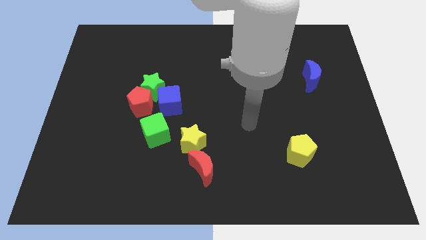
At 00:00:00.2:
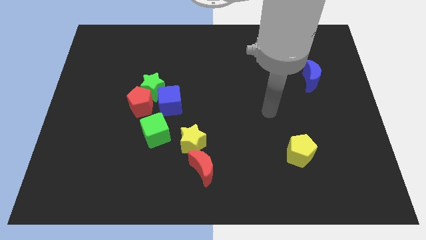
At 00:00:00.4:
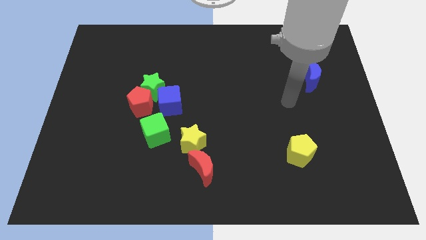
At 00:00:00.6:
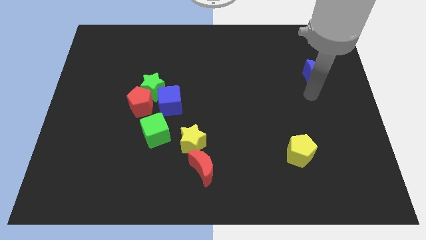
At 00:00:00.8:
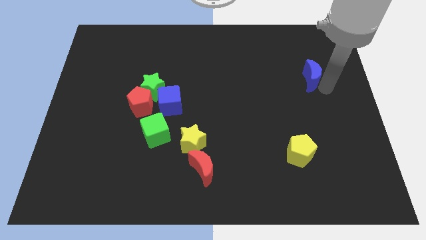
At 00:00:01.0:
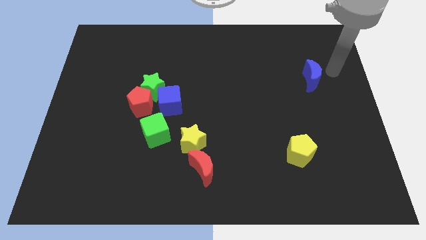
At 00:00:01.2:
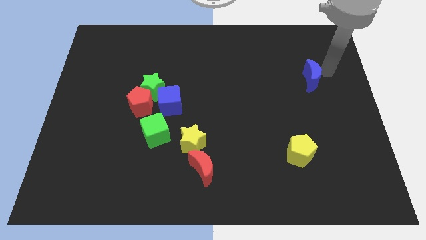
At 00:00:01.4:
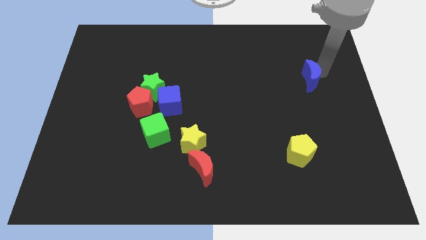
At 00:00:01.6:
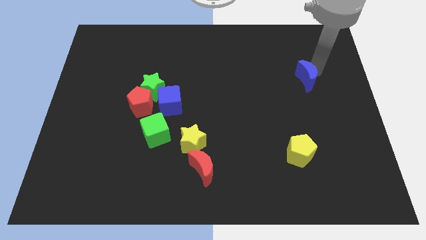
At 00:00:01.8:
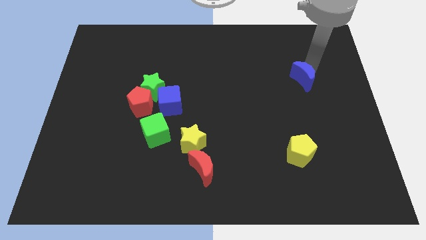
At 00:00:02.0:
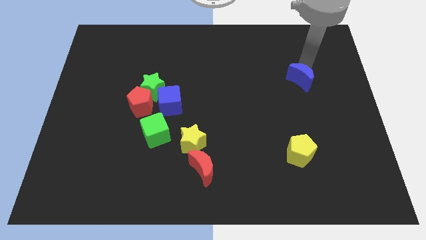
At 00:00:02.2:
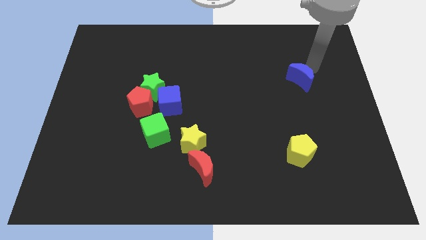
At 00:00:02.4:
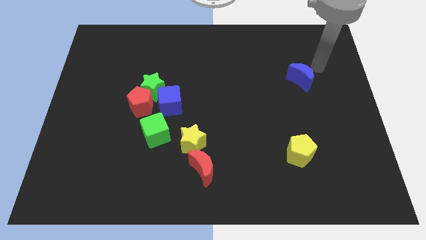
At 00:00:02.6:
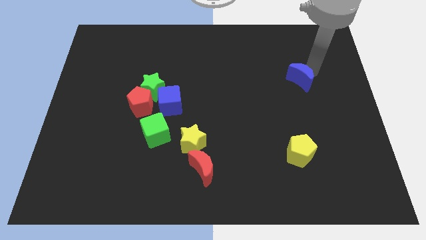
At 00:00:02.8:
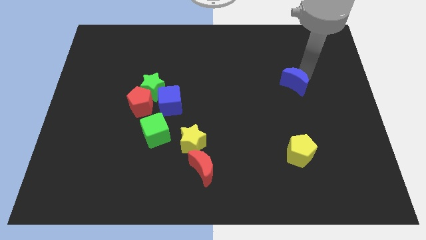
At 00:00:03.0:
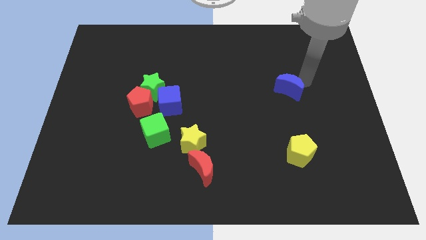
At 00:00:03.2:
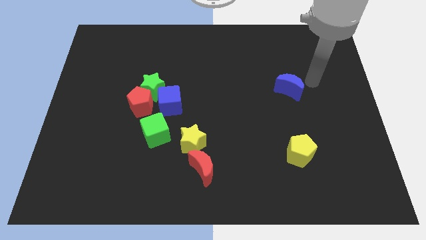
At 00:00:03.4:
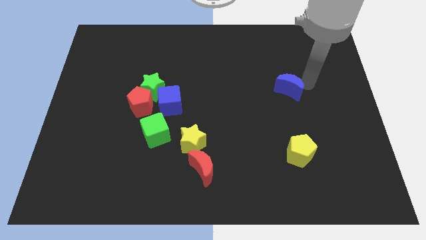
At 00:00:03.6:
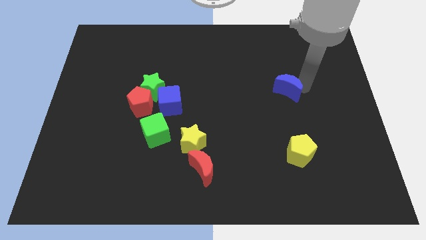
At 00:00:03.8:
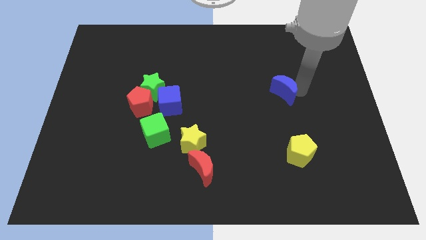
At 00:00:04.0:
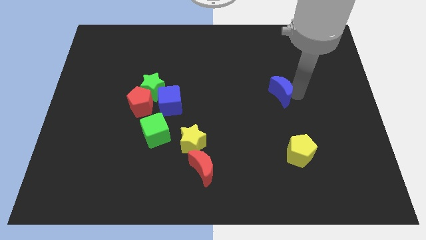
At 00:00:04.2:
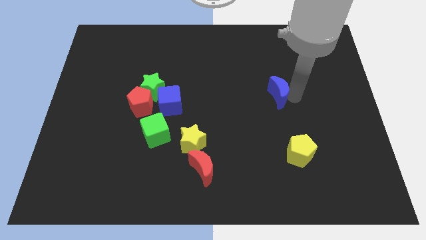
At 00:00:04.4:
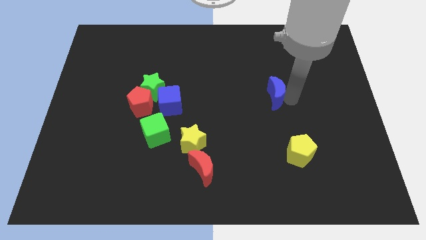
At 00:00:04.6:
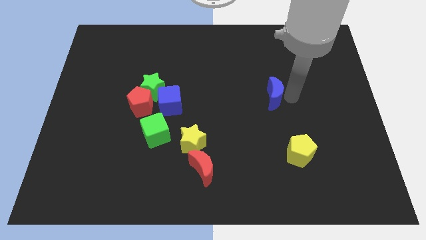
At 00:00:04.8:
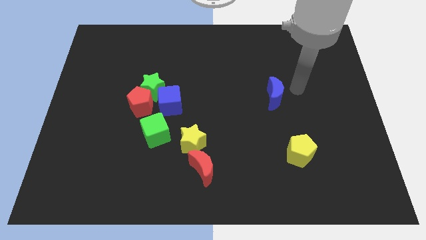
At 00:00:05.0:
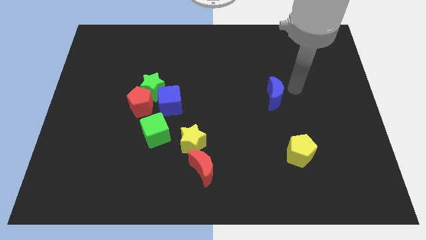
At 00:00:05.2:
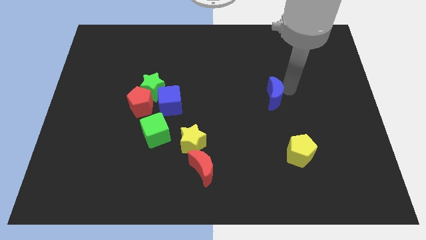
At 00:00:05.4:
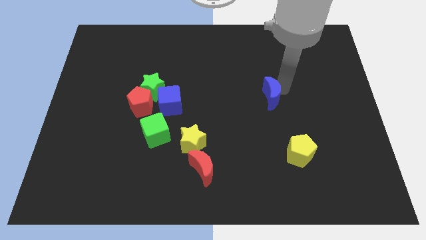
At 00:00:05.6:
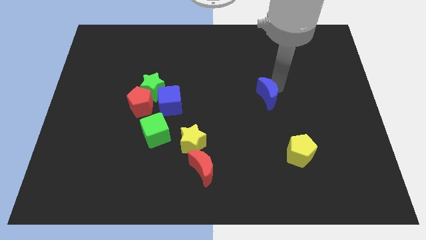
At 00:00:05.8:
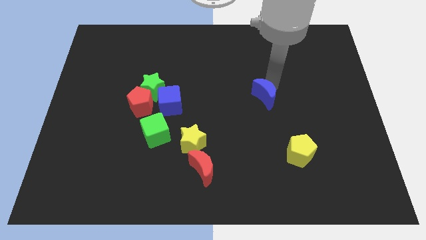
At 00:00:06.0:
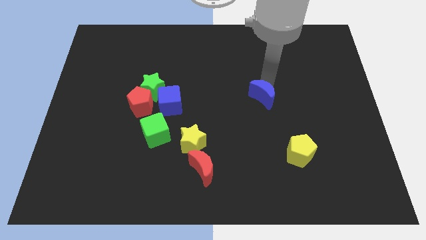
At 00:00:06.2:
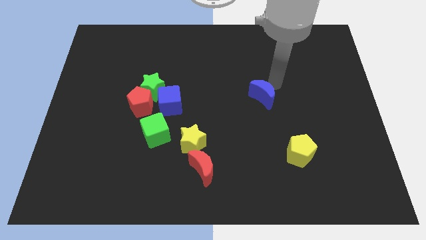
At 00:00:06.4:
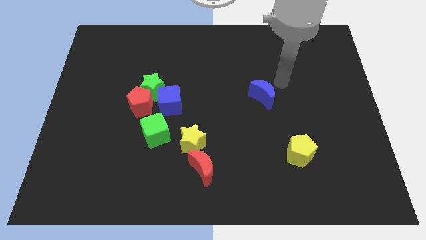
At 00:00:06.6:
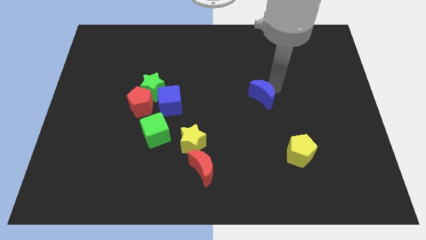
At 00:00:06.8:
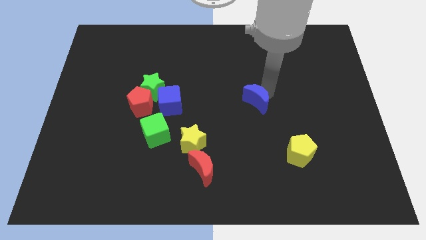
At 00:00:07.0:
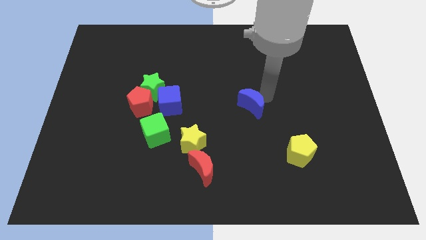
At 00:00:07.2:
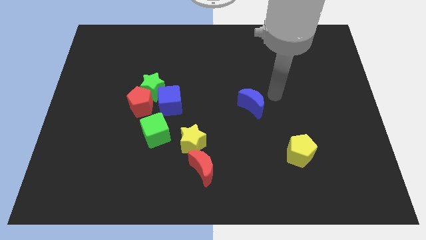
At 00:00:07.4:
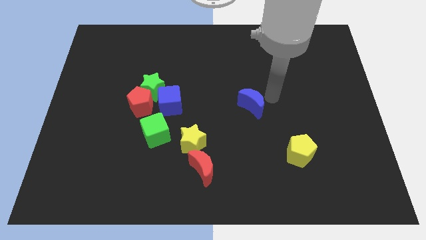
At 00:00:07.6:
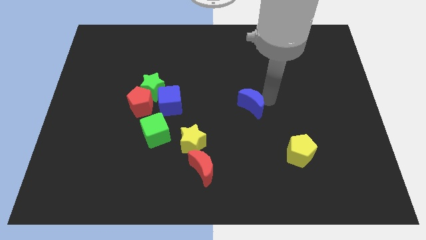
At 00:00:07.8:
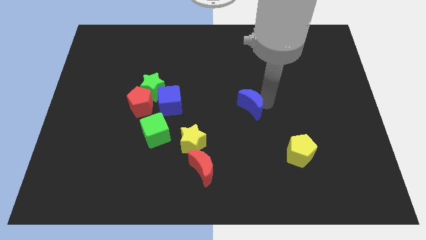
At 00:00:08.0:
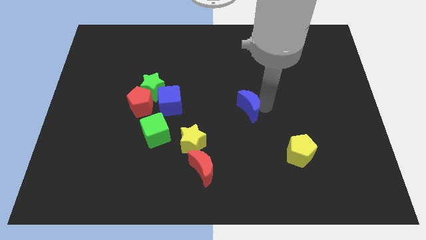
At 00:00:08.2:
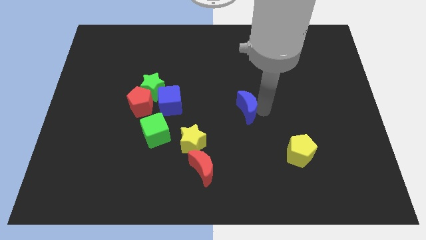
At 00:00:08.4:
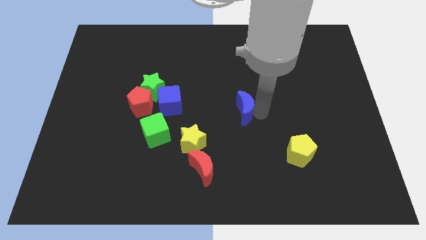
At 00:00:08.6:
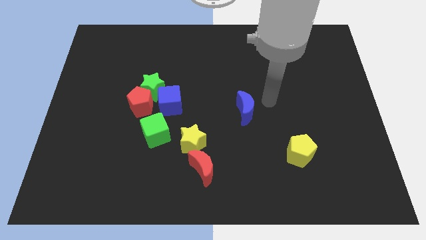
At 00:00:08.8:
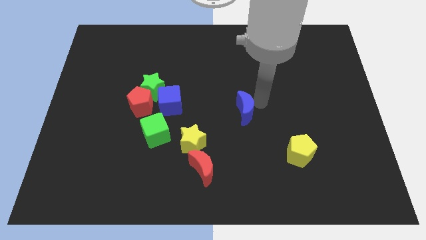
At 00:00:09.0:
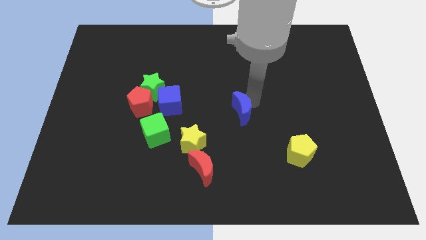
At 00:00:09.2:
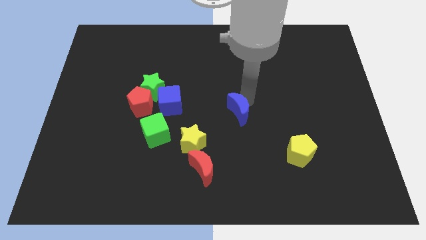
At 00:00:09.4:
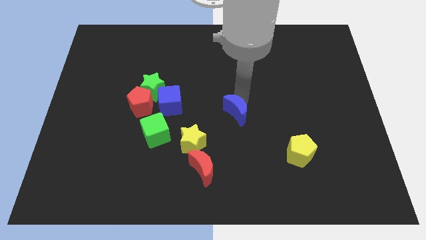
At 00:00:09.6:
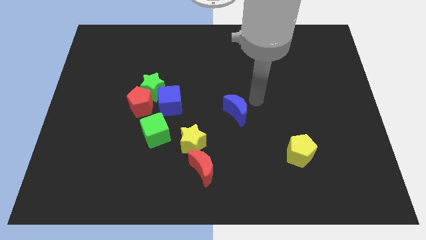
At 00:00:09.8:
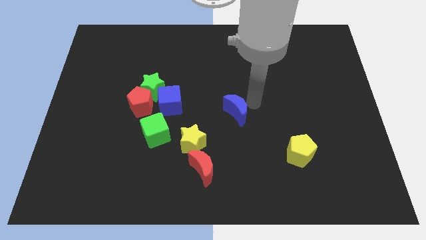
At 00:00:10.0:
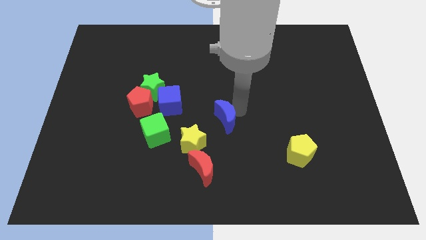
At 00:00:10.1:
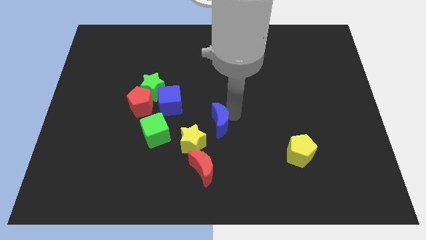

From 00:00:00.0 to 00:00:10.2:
put the blue moon to the top of the red moon

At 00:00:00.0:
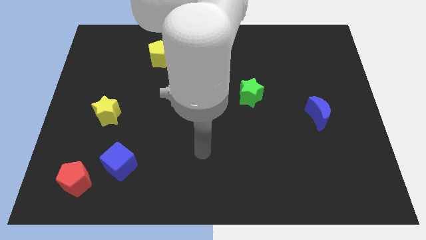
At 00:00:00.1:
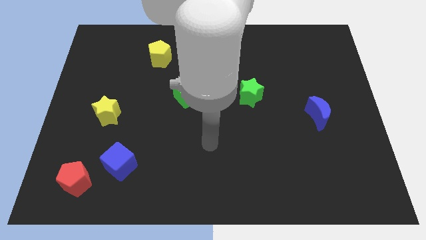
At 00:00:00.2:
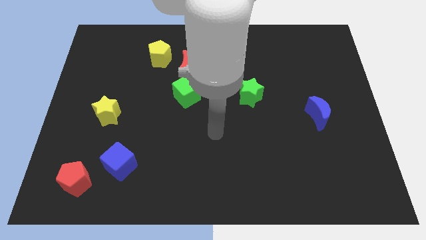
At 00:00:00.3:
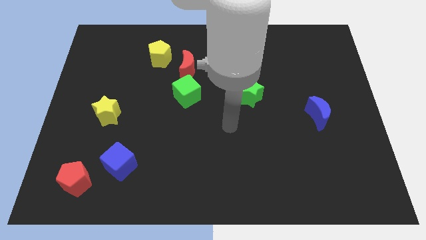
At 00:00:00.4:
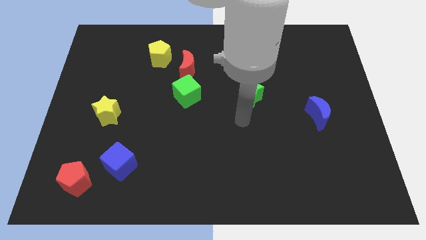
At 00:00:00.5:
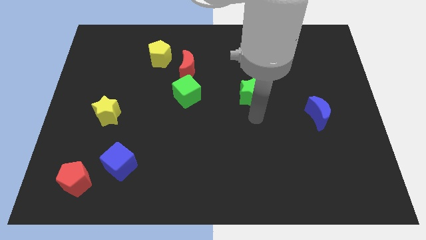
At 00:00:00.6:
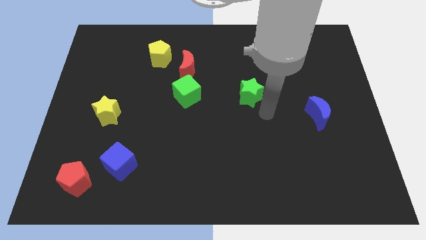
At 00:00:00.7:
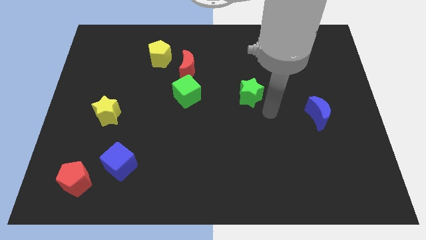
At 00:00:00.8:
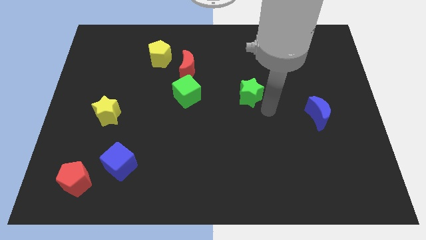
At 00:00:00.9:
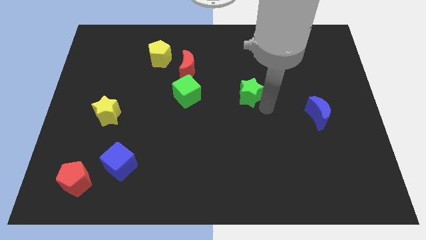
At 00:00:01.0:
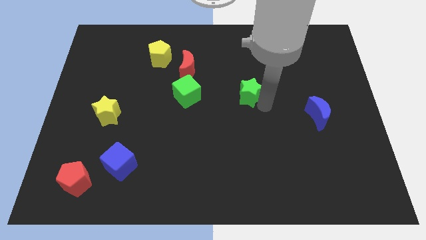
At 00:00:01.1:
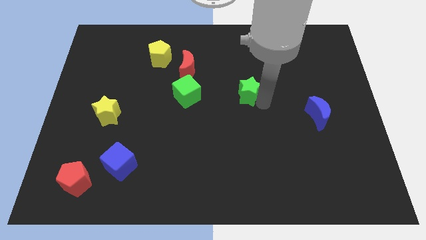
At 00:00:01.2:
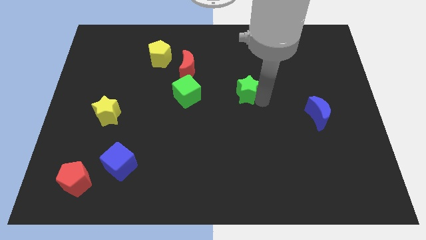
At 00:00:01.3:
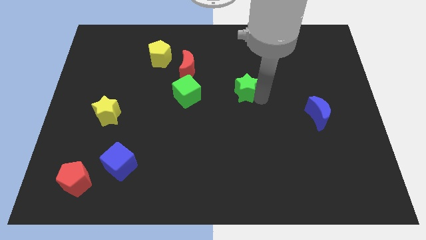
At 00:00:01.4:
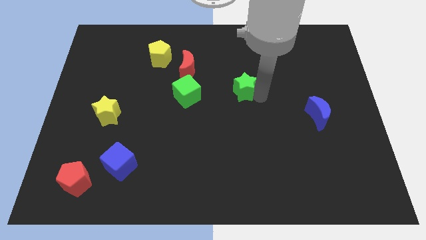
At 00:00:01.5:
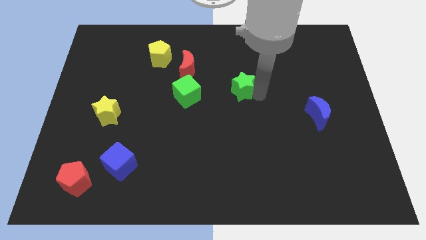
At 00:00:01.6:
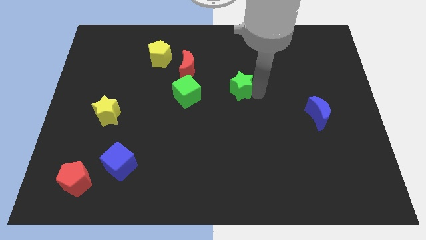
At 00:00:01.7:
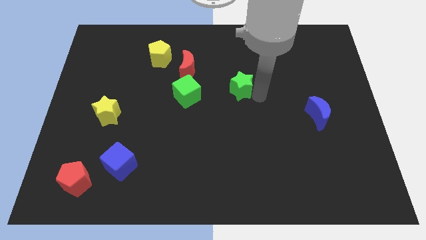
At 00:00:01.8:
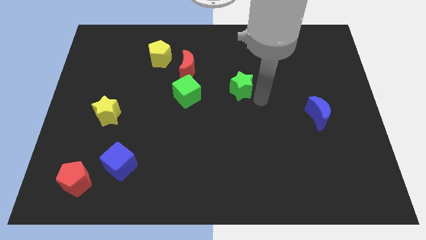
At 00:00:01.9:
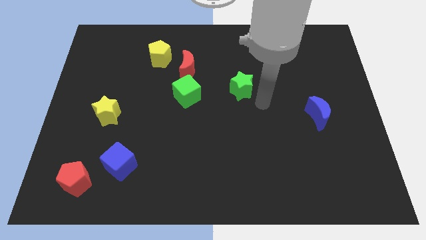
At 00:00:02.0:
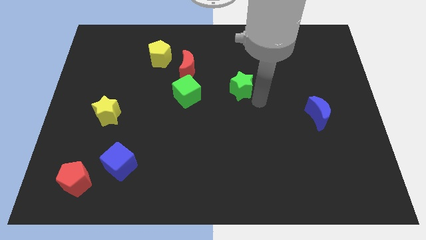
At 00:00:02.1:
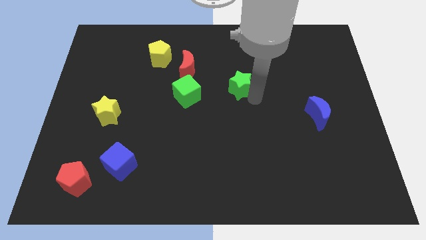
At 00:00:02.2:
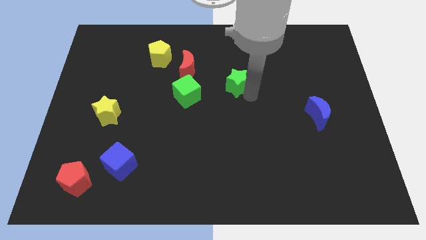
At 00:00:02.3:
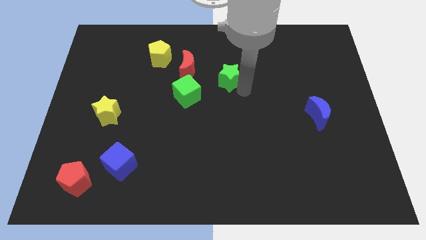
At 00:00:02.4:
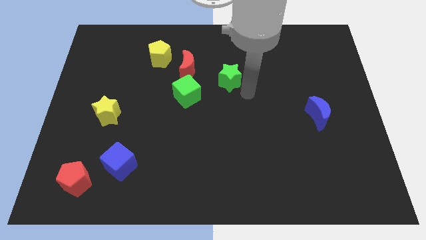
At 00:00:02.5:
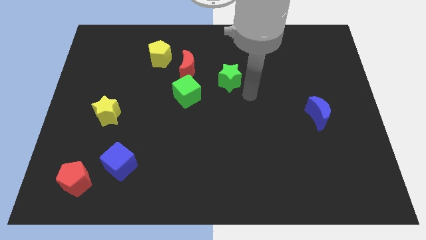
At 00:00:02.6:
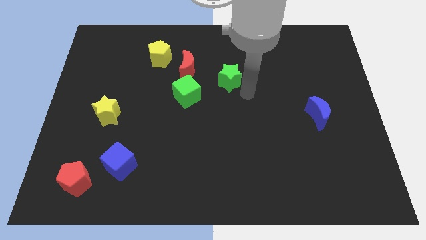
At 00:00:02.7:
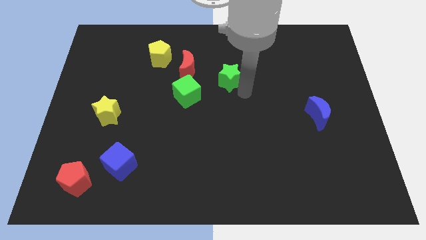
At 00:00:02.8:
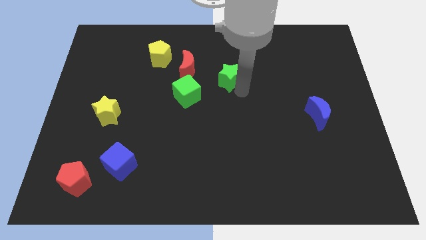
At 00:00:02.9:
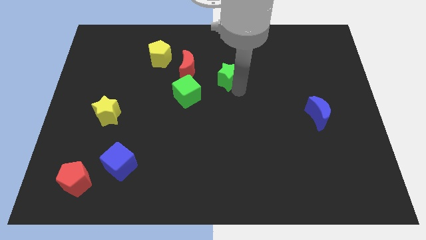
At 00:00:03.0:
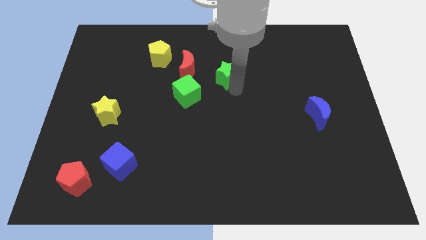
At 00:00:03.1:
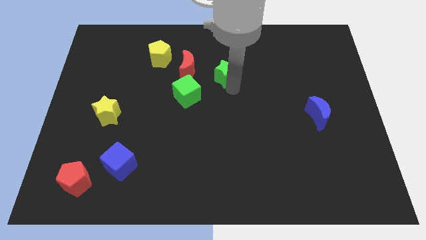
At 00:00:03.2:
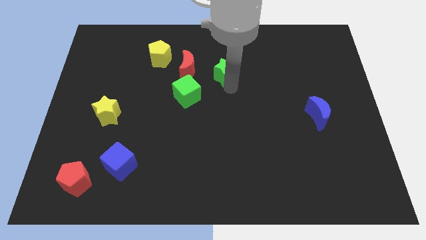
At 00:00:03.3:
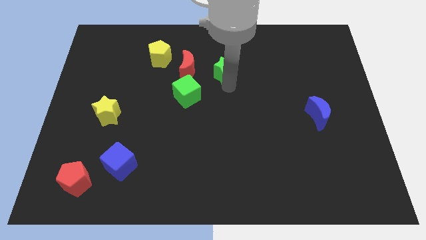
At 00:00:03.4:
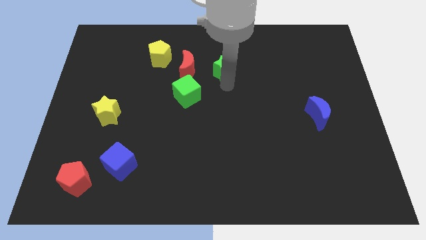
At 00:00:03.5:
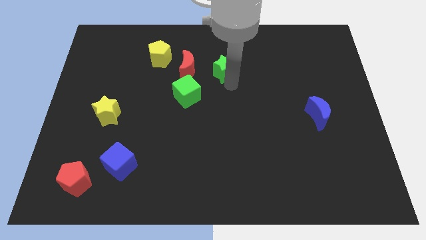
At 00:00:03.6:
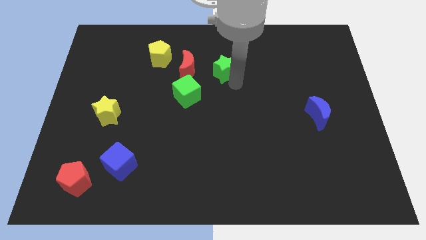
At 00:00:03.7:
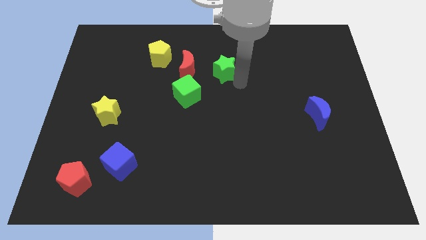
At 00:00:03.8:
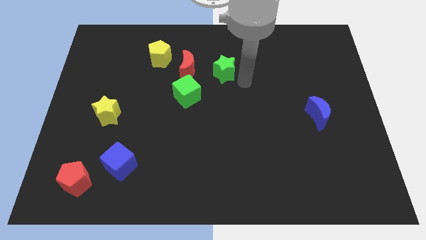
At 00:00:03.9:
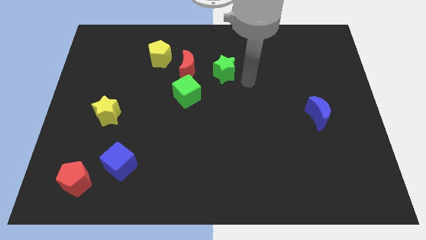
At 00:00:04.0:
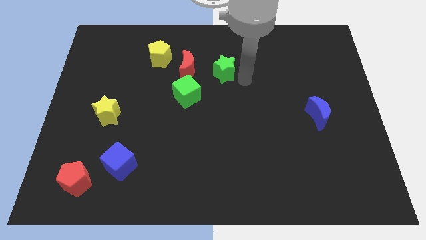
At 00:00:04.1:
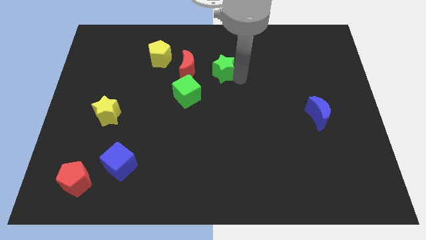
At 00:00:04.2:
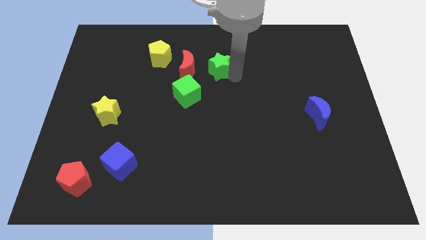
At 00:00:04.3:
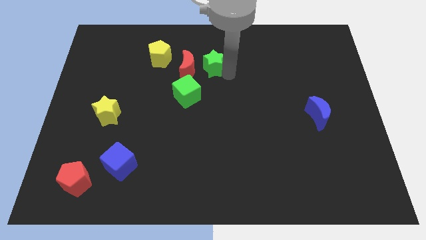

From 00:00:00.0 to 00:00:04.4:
push the green star right of the yellow pentagon
